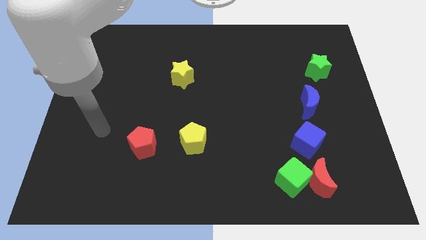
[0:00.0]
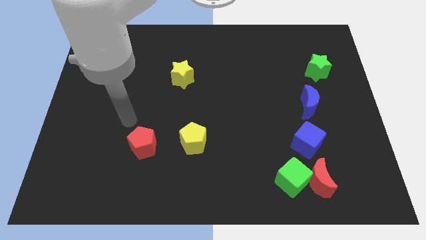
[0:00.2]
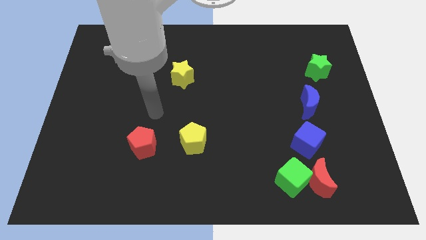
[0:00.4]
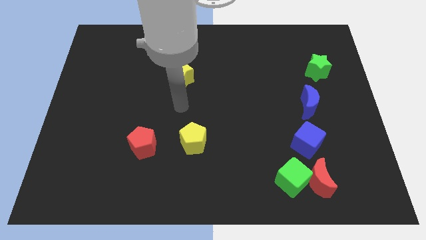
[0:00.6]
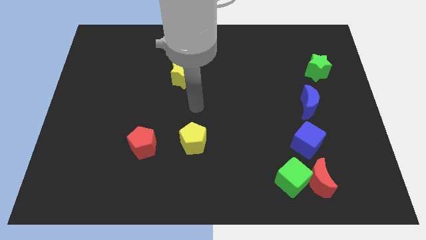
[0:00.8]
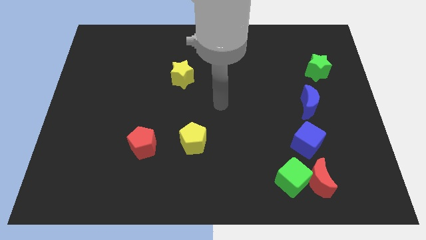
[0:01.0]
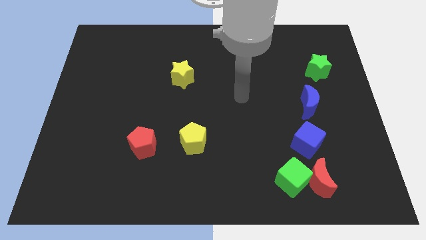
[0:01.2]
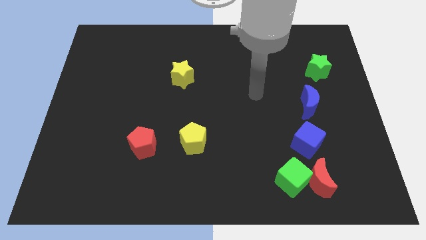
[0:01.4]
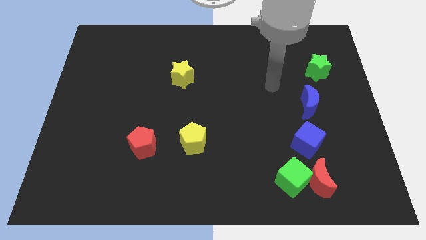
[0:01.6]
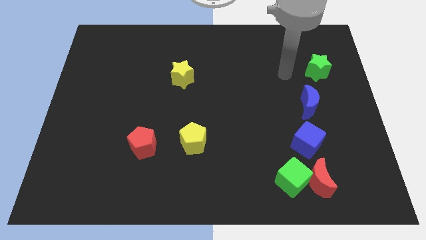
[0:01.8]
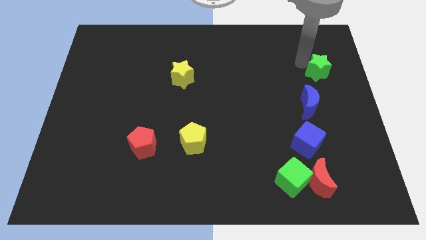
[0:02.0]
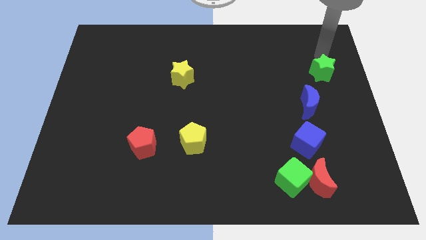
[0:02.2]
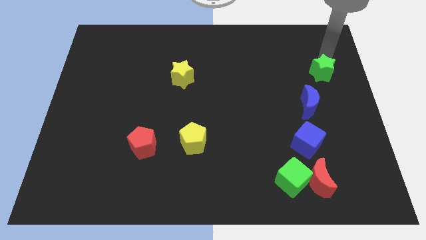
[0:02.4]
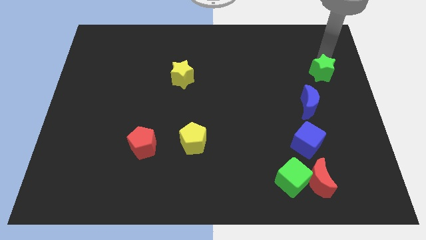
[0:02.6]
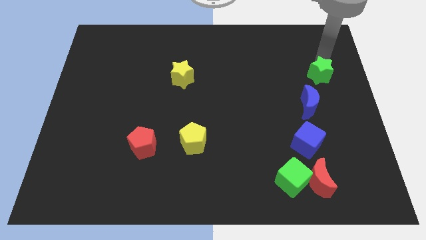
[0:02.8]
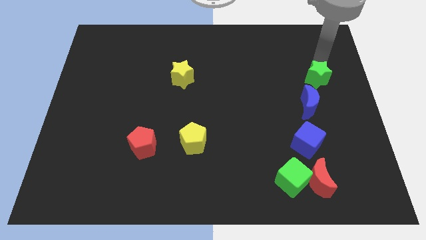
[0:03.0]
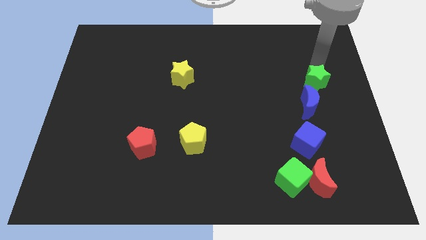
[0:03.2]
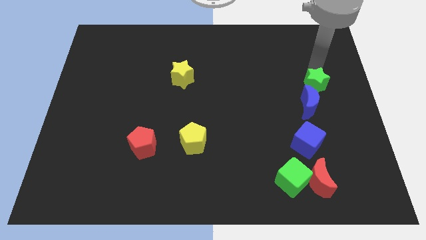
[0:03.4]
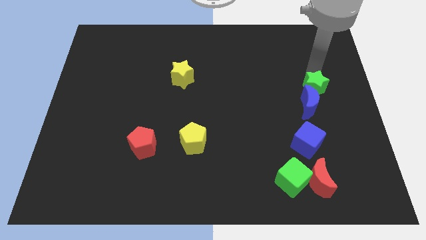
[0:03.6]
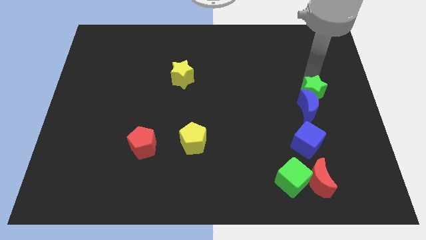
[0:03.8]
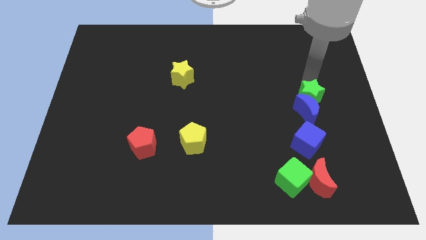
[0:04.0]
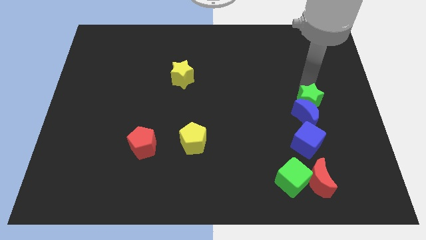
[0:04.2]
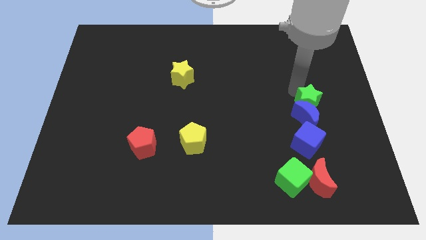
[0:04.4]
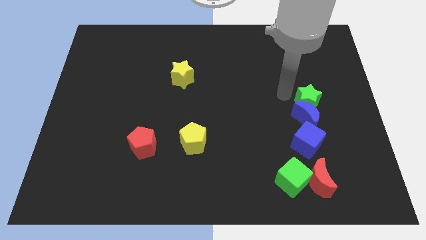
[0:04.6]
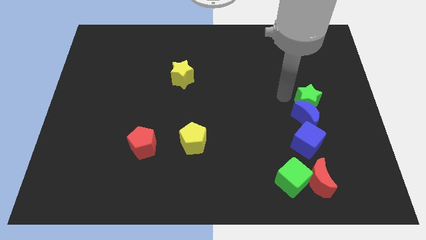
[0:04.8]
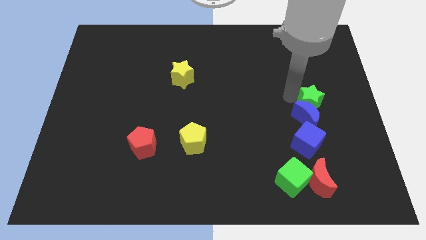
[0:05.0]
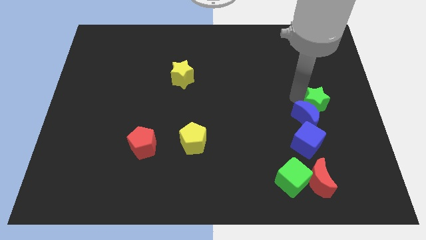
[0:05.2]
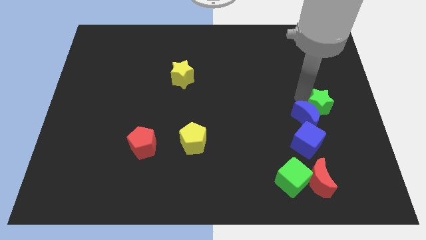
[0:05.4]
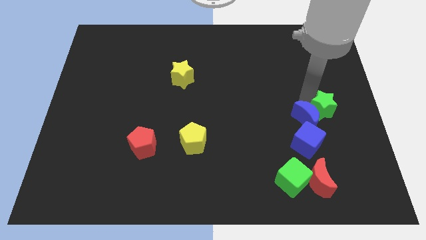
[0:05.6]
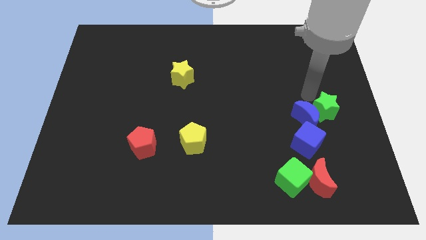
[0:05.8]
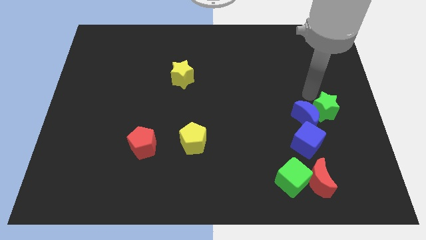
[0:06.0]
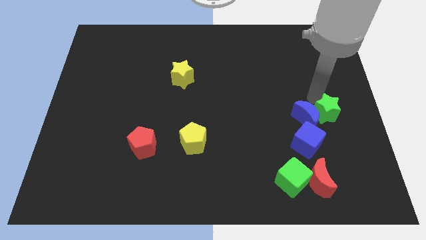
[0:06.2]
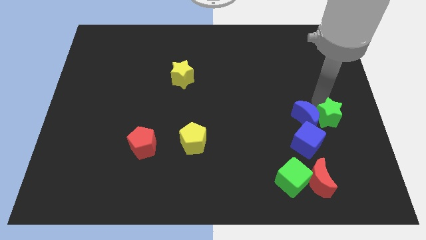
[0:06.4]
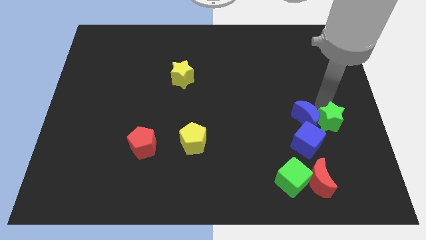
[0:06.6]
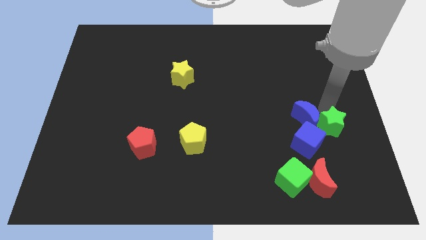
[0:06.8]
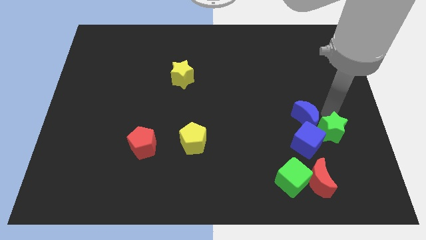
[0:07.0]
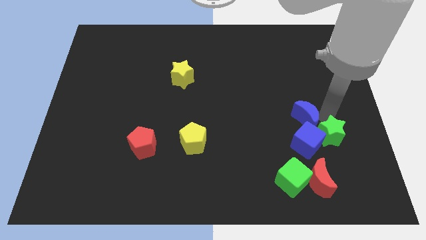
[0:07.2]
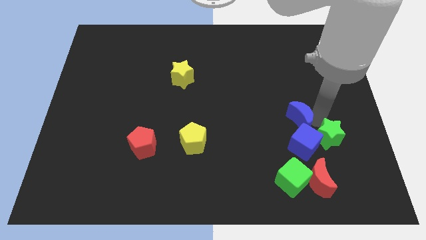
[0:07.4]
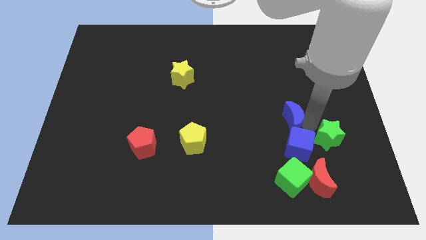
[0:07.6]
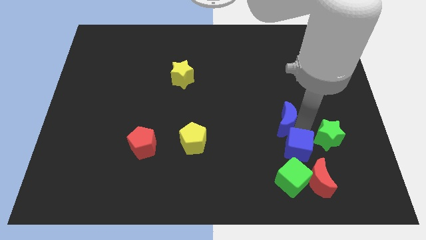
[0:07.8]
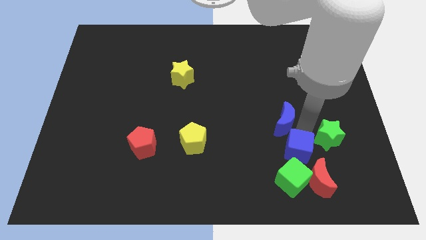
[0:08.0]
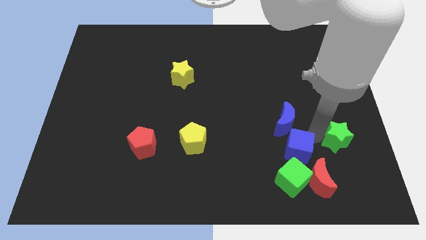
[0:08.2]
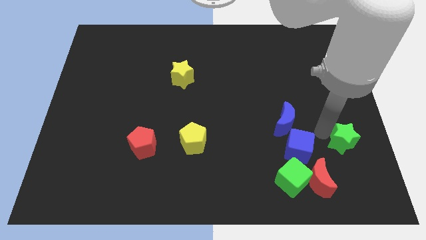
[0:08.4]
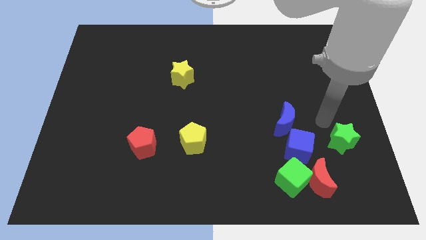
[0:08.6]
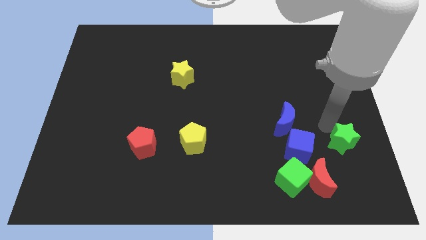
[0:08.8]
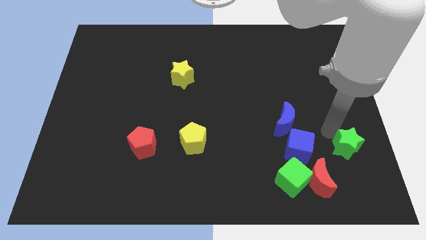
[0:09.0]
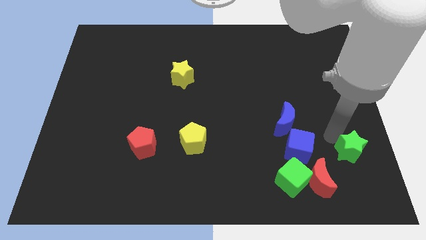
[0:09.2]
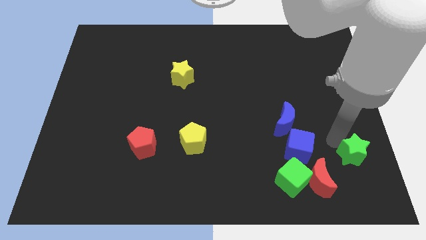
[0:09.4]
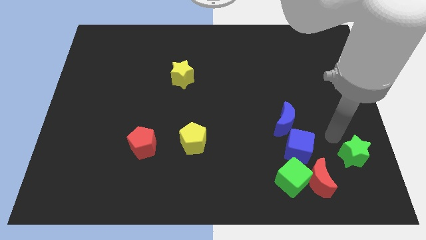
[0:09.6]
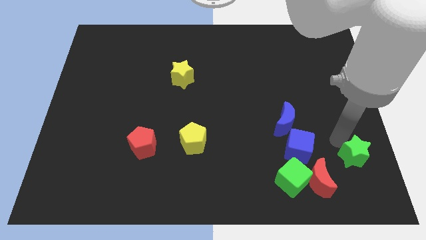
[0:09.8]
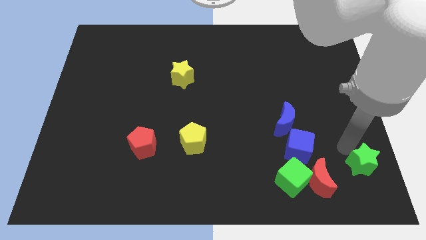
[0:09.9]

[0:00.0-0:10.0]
slide the green star to the lower right corner

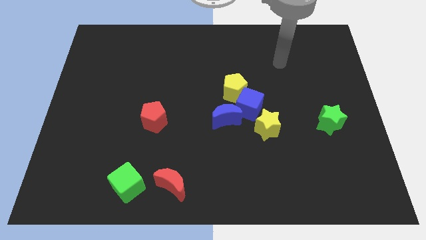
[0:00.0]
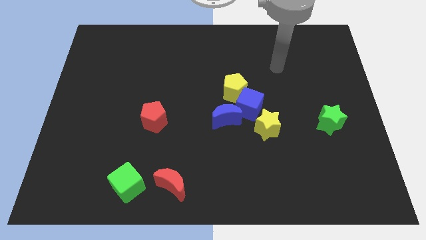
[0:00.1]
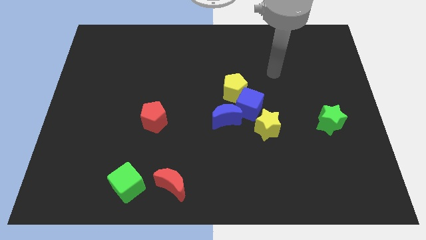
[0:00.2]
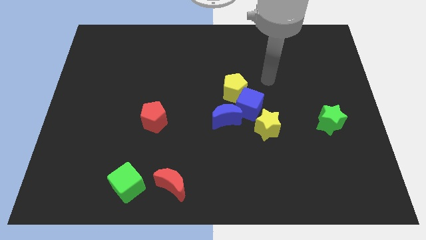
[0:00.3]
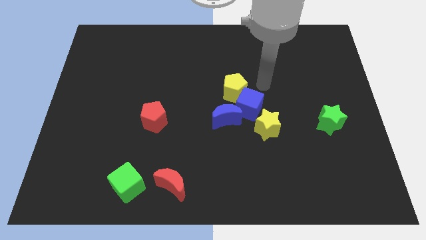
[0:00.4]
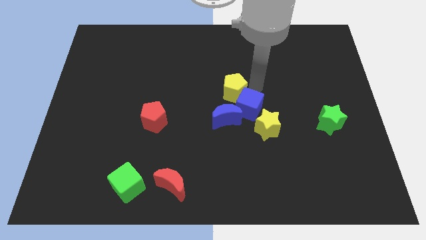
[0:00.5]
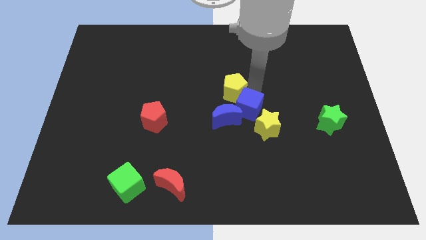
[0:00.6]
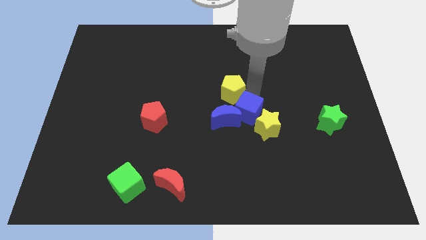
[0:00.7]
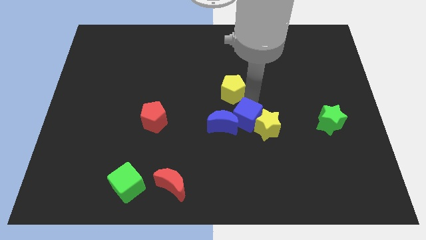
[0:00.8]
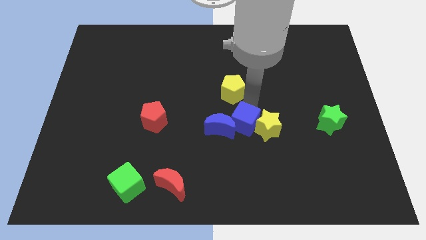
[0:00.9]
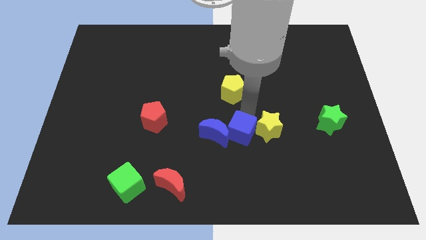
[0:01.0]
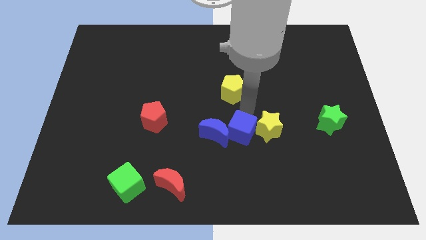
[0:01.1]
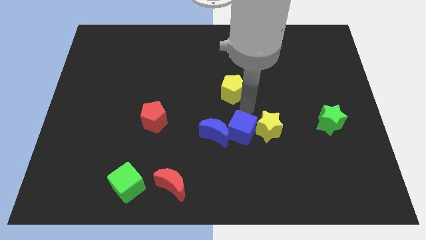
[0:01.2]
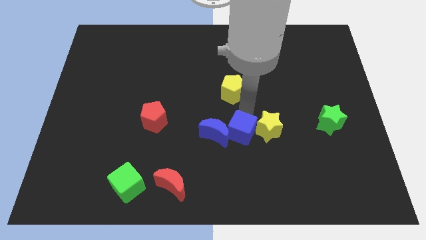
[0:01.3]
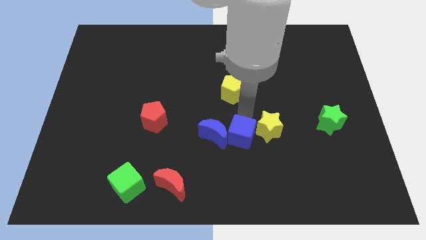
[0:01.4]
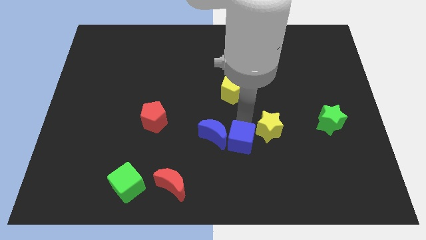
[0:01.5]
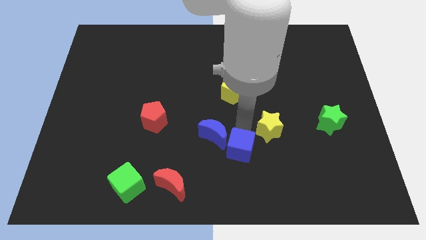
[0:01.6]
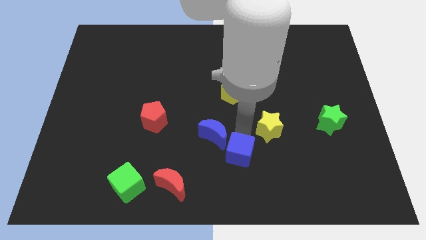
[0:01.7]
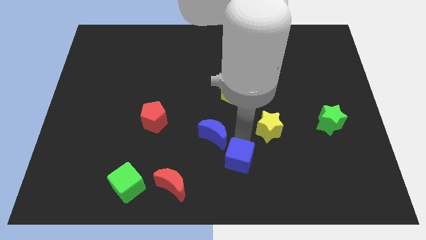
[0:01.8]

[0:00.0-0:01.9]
slide the blue cube to the bottom

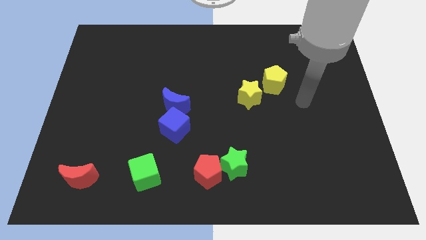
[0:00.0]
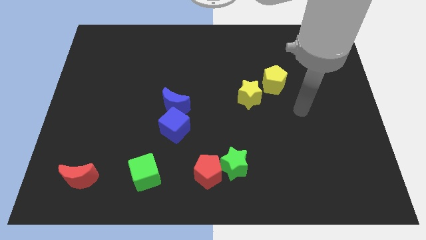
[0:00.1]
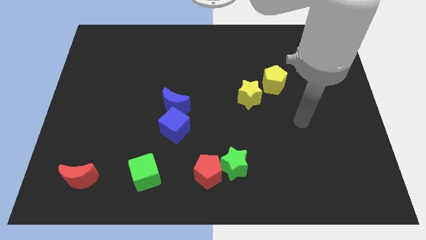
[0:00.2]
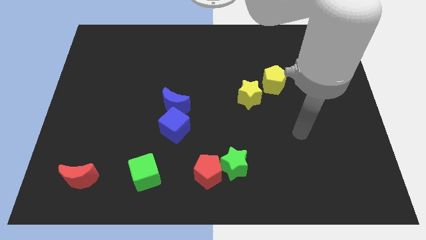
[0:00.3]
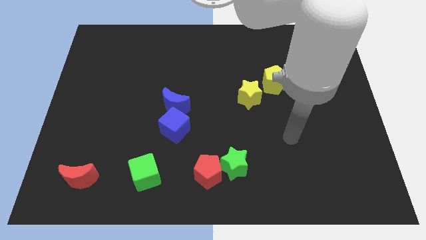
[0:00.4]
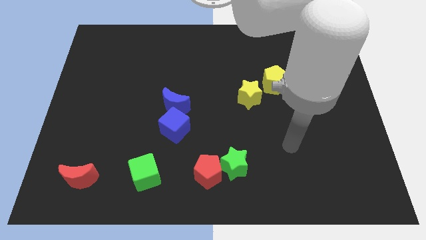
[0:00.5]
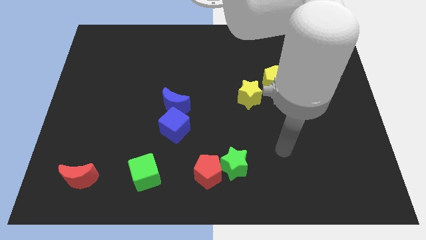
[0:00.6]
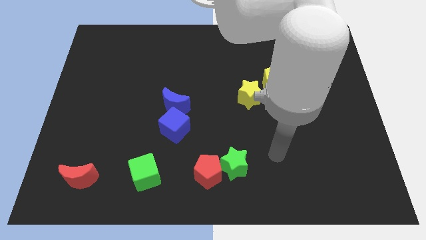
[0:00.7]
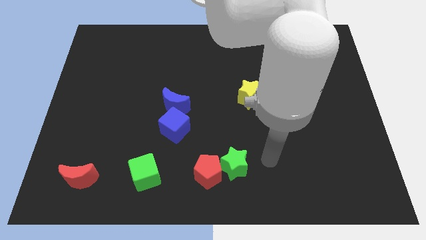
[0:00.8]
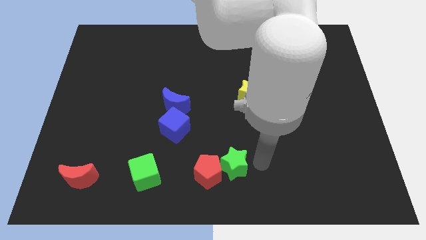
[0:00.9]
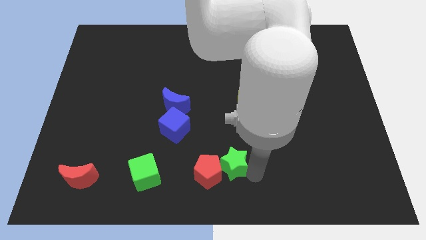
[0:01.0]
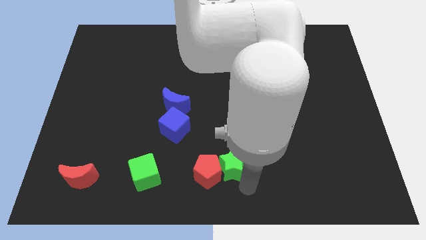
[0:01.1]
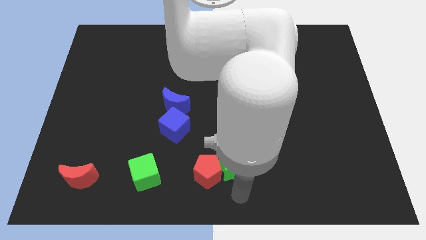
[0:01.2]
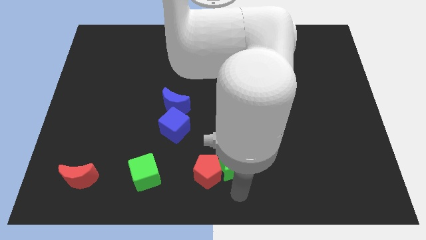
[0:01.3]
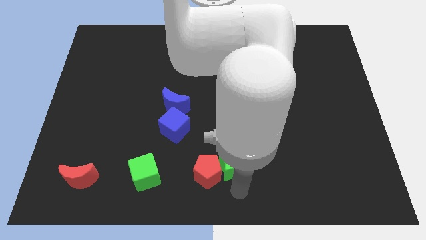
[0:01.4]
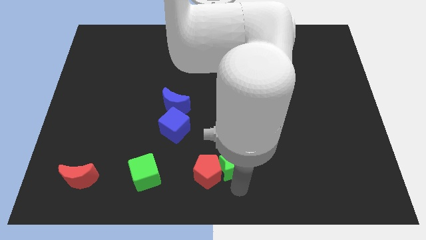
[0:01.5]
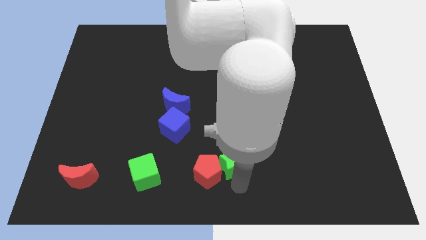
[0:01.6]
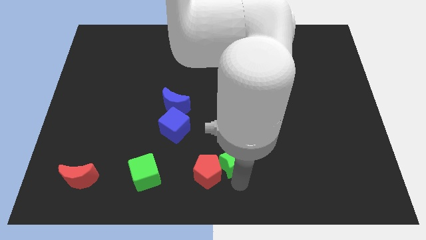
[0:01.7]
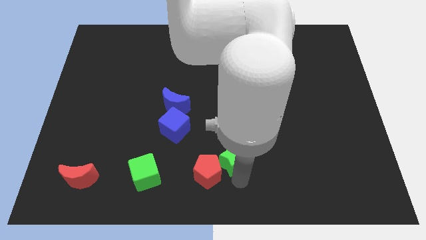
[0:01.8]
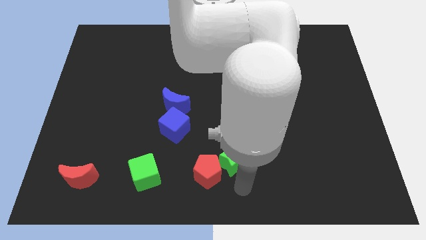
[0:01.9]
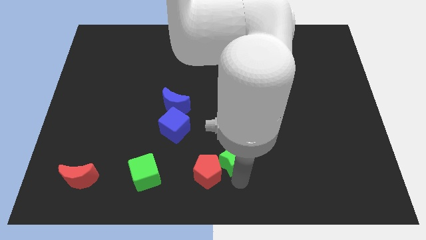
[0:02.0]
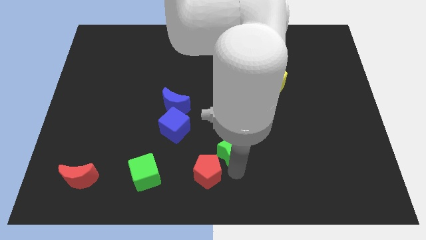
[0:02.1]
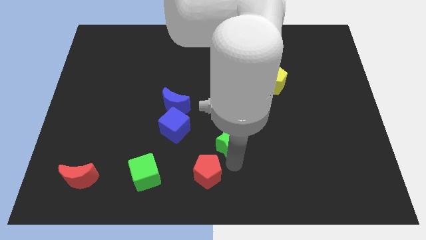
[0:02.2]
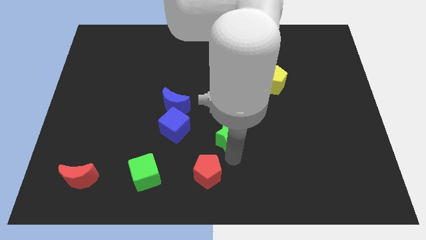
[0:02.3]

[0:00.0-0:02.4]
put the green star to the middle
